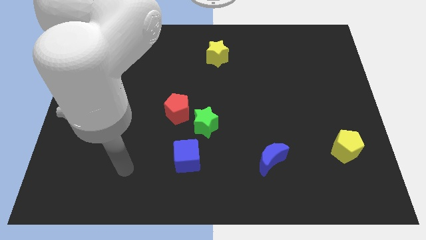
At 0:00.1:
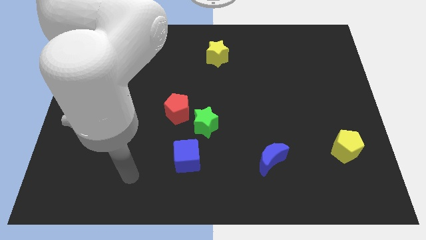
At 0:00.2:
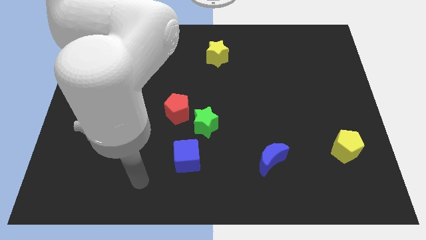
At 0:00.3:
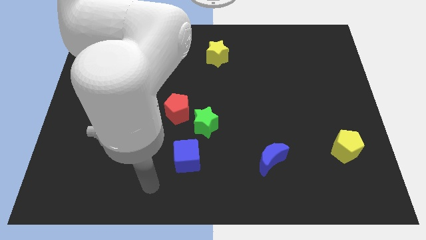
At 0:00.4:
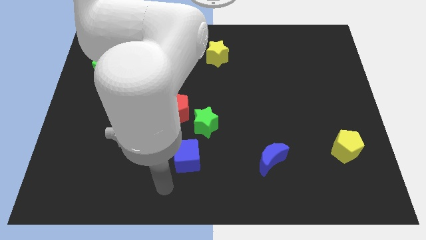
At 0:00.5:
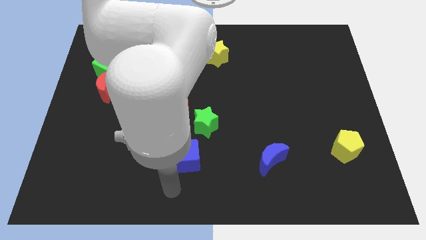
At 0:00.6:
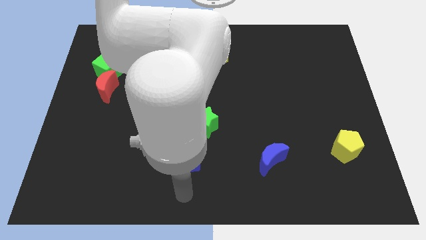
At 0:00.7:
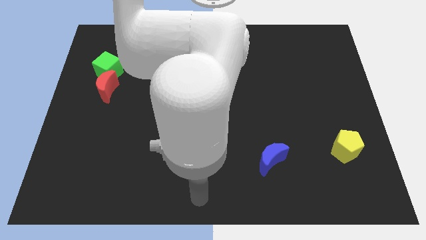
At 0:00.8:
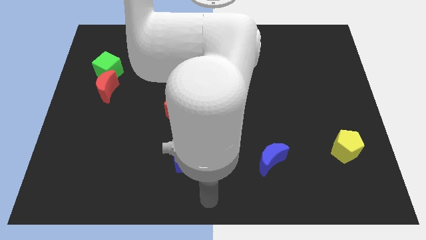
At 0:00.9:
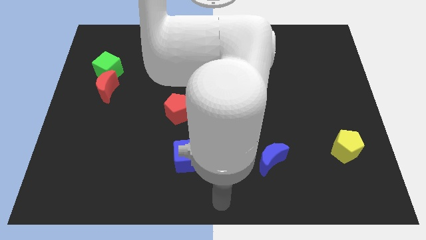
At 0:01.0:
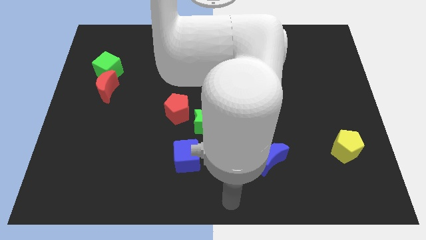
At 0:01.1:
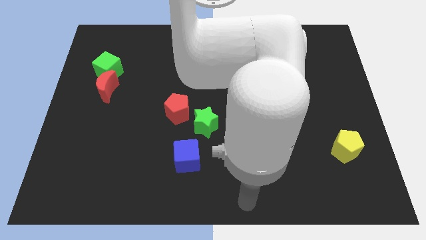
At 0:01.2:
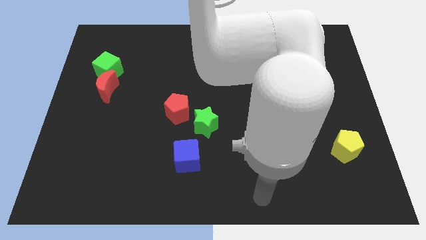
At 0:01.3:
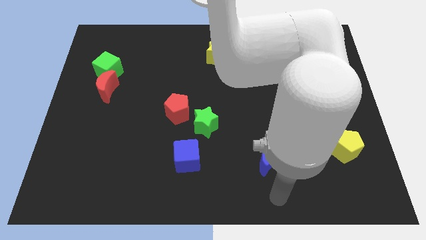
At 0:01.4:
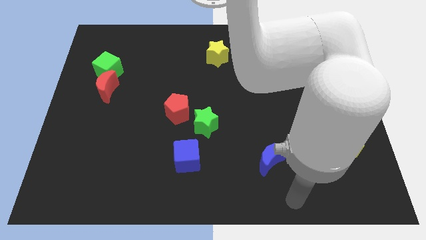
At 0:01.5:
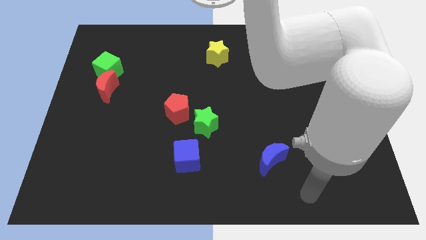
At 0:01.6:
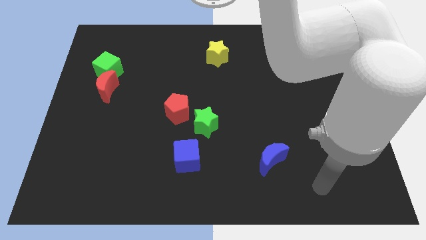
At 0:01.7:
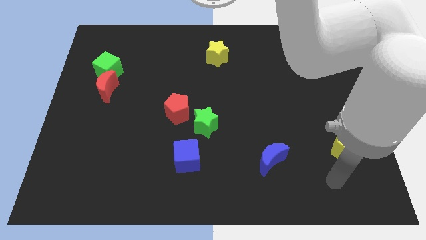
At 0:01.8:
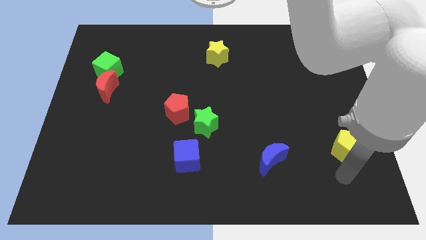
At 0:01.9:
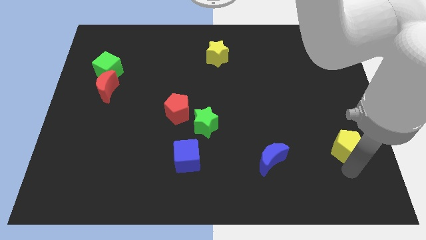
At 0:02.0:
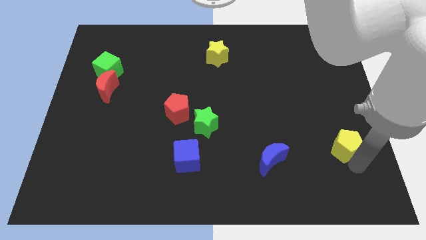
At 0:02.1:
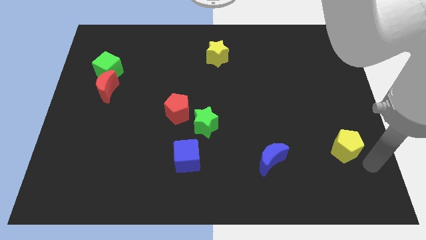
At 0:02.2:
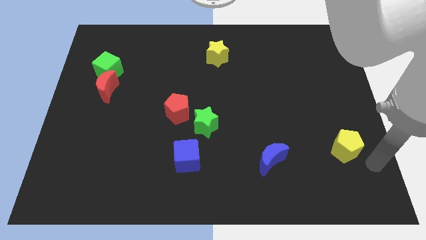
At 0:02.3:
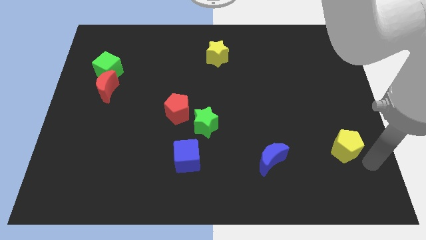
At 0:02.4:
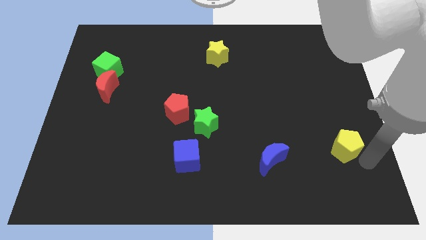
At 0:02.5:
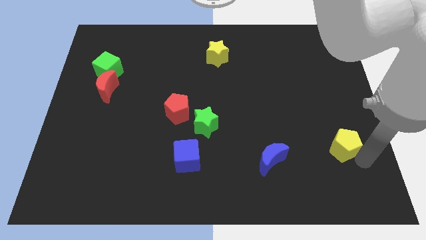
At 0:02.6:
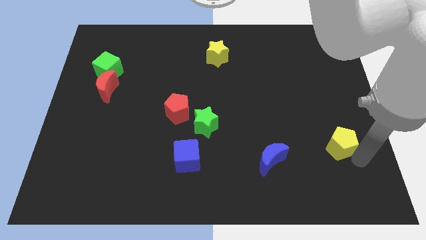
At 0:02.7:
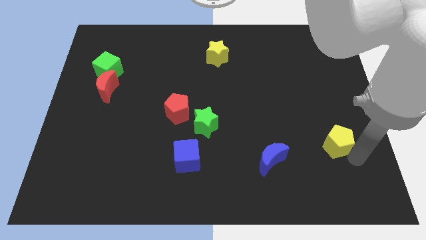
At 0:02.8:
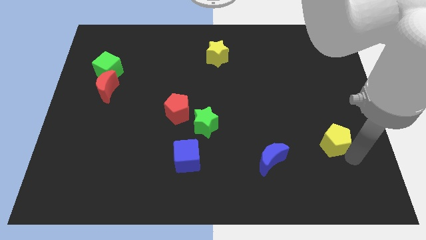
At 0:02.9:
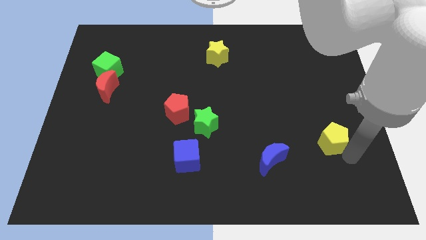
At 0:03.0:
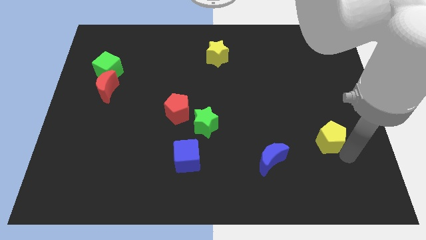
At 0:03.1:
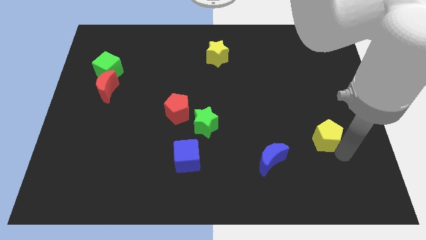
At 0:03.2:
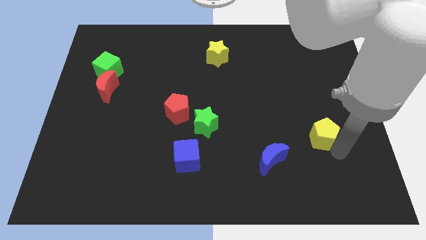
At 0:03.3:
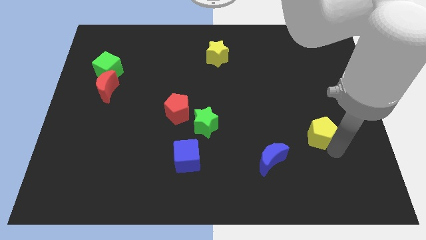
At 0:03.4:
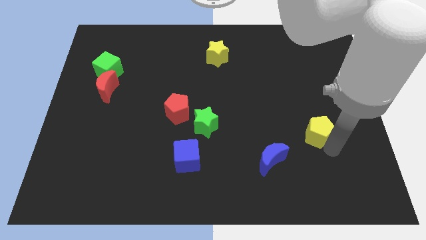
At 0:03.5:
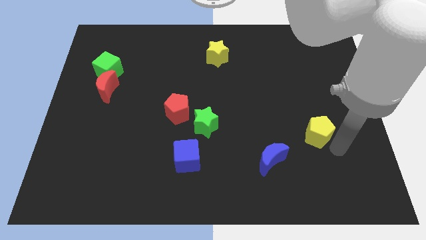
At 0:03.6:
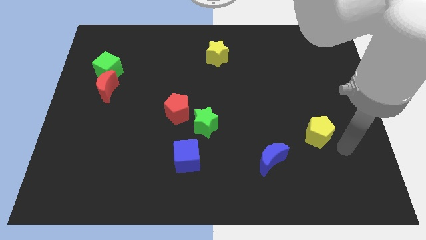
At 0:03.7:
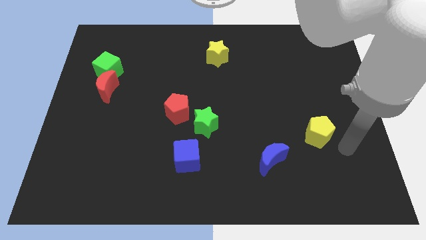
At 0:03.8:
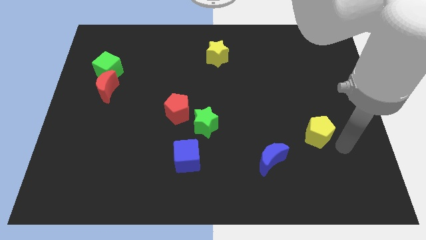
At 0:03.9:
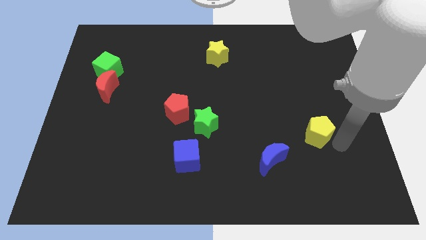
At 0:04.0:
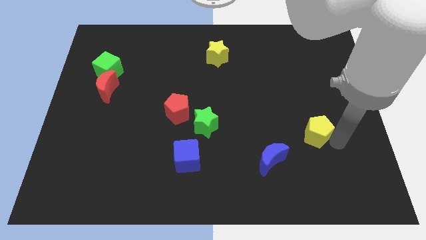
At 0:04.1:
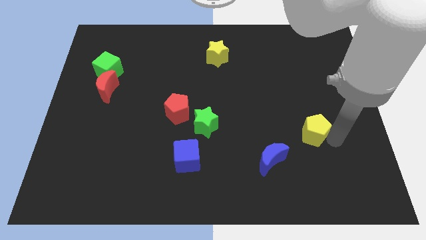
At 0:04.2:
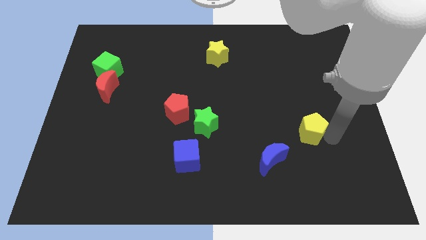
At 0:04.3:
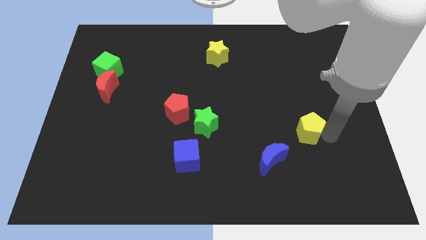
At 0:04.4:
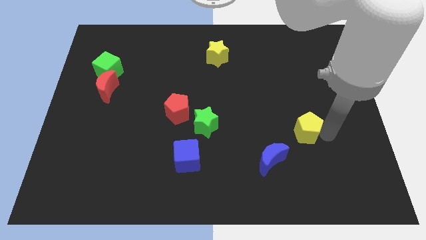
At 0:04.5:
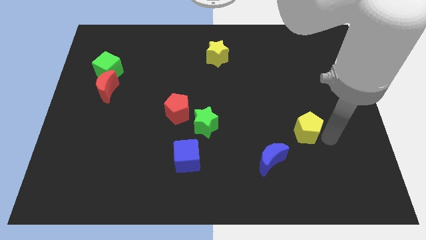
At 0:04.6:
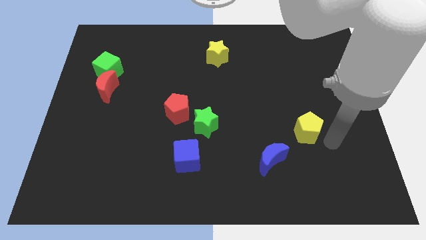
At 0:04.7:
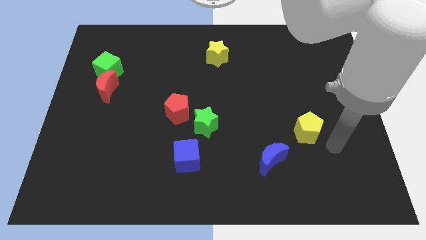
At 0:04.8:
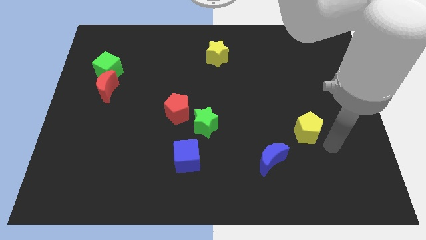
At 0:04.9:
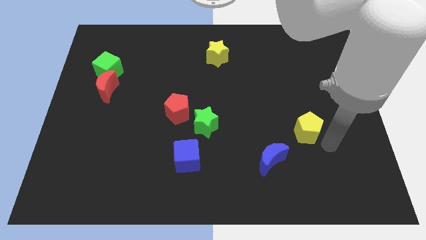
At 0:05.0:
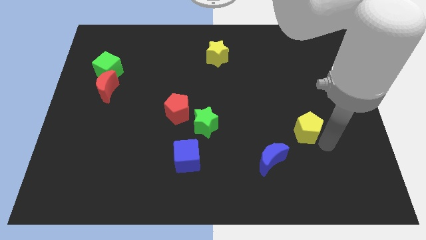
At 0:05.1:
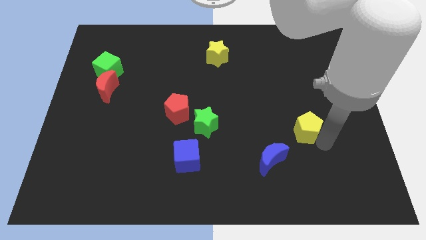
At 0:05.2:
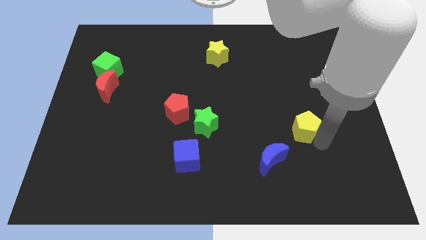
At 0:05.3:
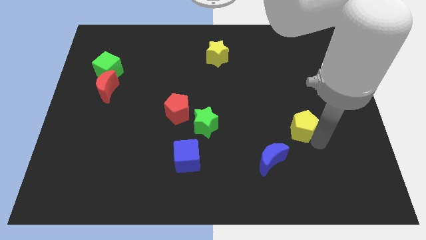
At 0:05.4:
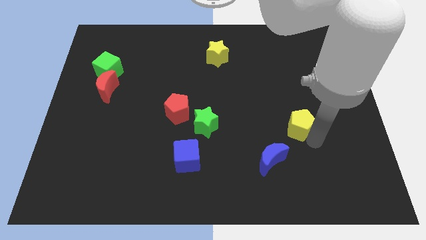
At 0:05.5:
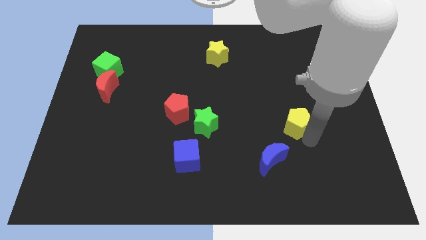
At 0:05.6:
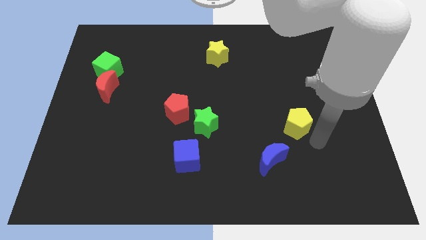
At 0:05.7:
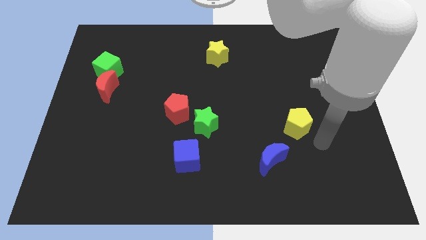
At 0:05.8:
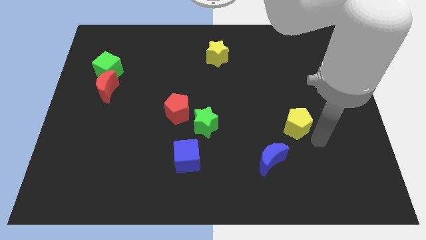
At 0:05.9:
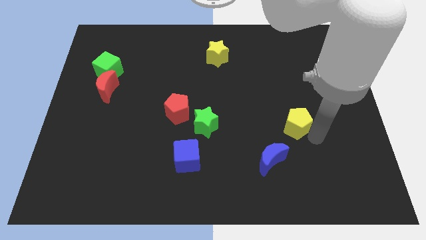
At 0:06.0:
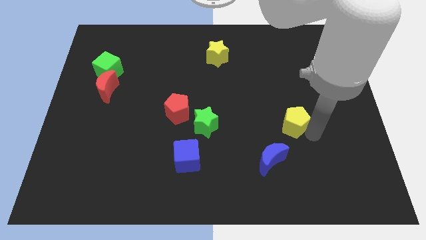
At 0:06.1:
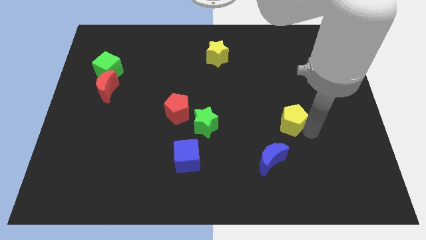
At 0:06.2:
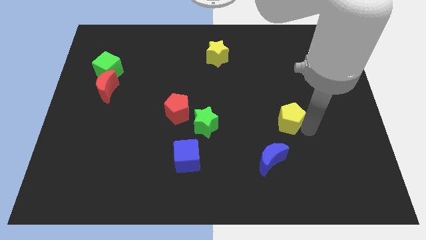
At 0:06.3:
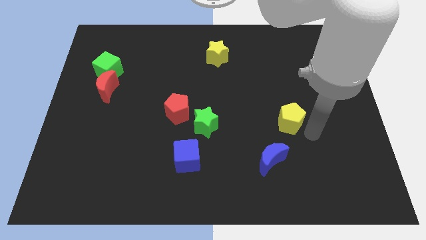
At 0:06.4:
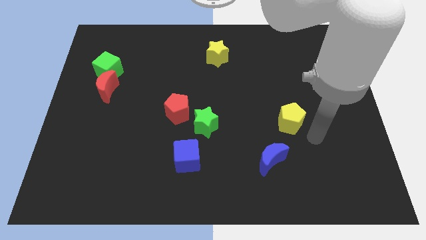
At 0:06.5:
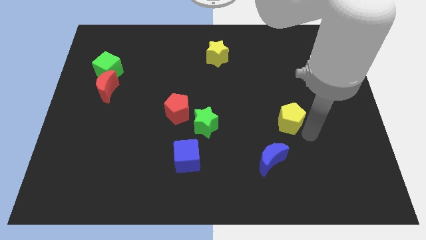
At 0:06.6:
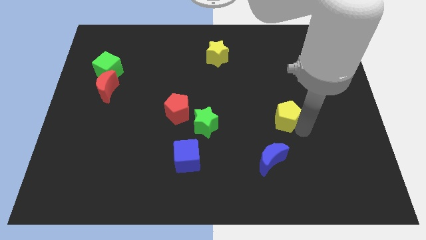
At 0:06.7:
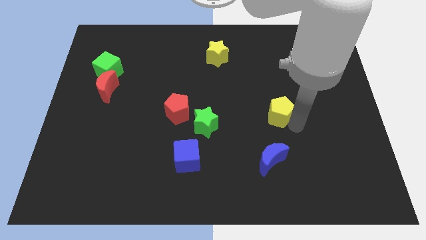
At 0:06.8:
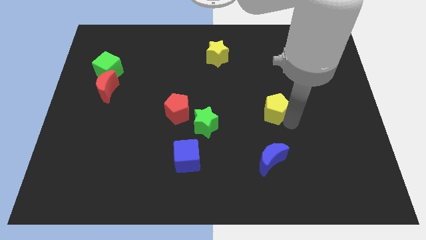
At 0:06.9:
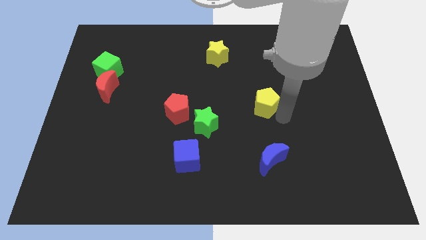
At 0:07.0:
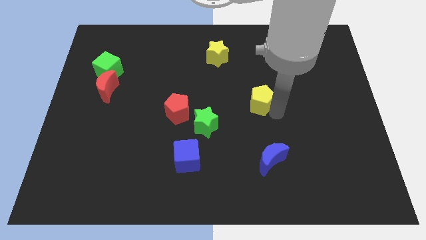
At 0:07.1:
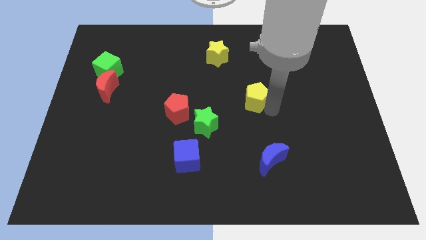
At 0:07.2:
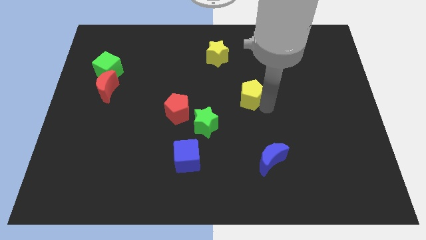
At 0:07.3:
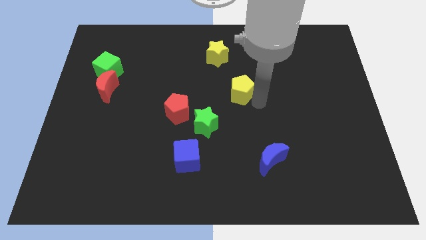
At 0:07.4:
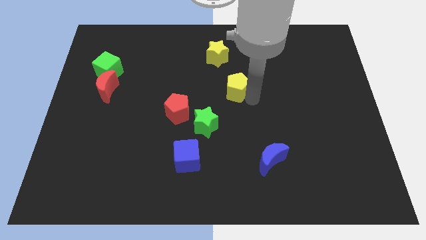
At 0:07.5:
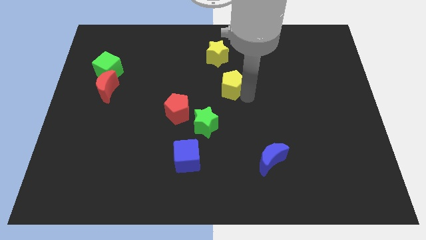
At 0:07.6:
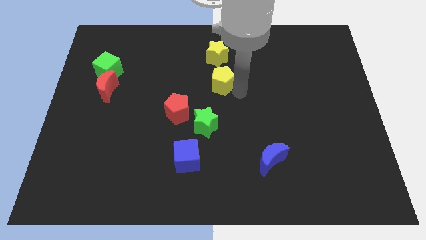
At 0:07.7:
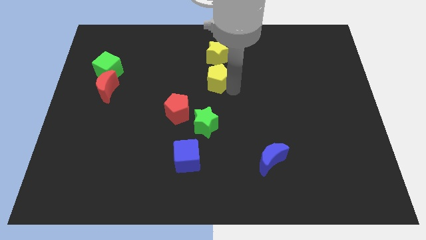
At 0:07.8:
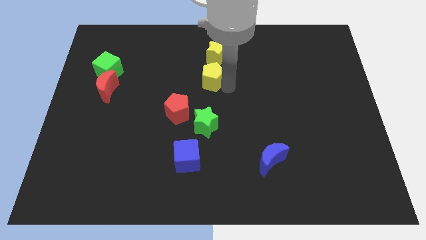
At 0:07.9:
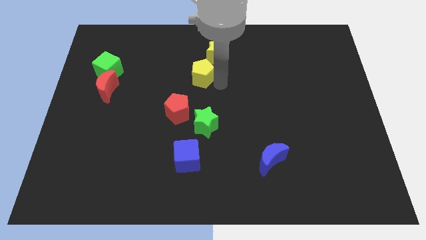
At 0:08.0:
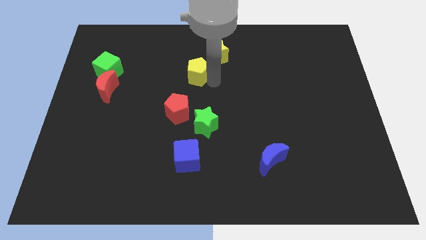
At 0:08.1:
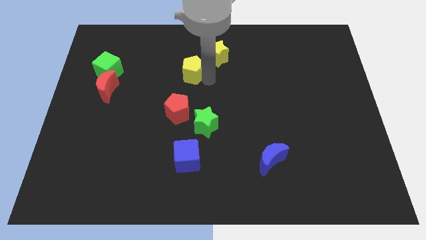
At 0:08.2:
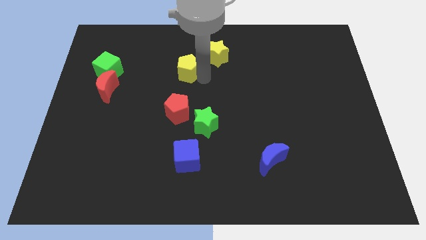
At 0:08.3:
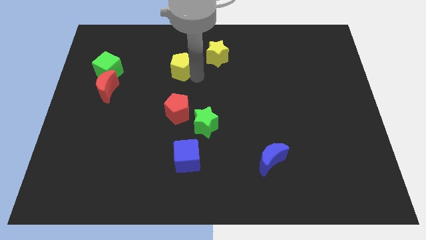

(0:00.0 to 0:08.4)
put the yellow pentagon left of the yellow star
